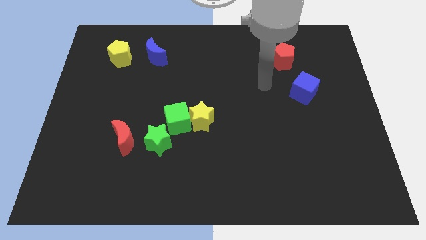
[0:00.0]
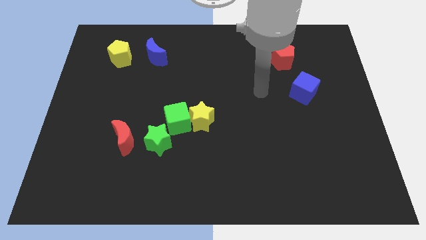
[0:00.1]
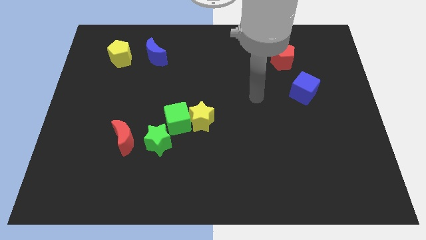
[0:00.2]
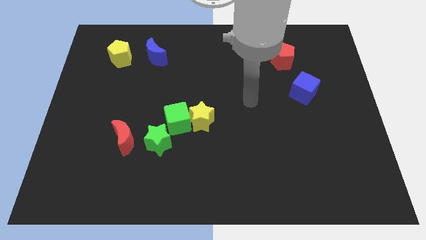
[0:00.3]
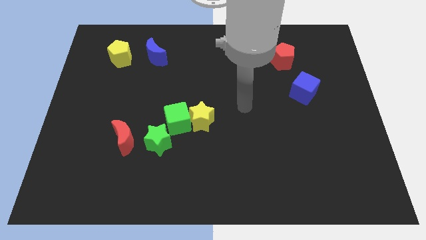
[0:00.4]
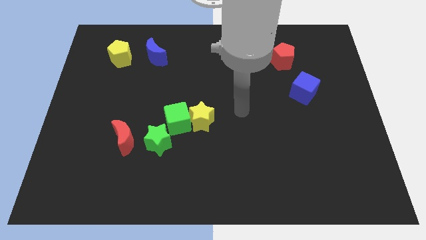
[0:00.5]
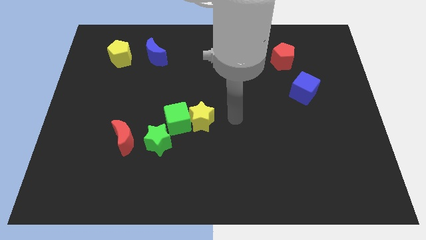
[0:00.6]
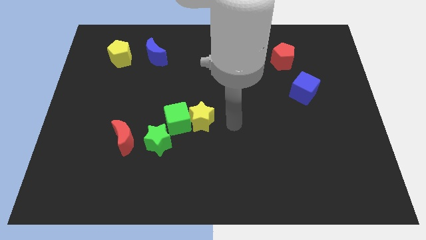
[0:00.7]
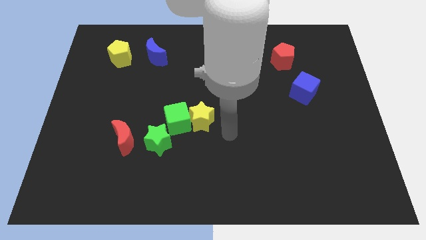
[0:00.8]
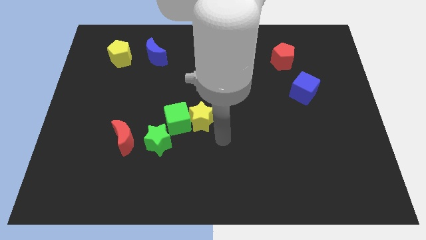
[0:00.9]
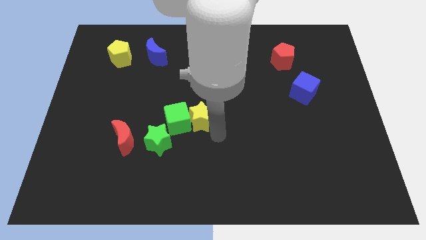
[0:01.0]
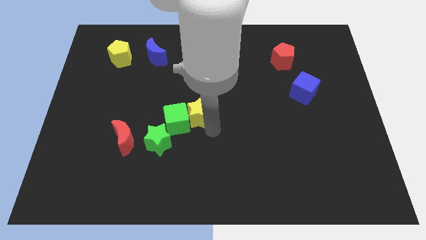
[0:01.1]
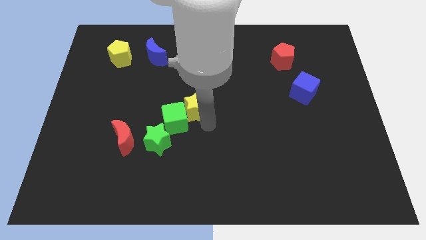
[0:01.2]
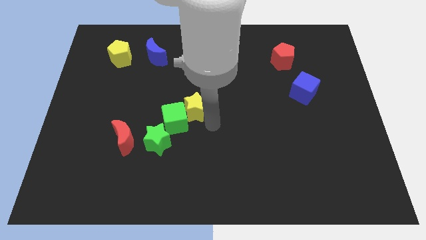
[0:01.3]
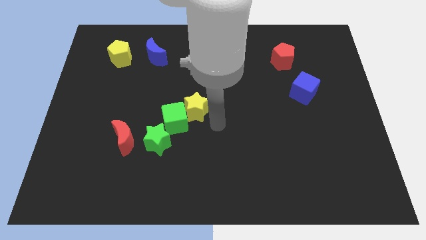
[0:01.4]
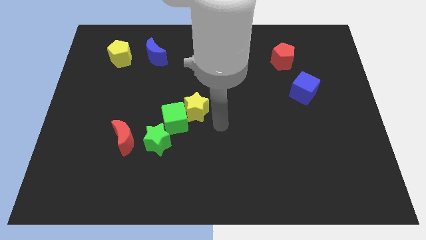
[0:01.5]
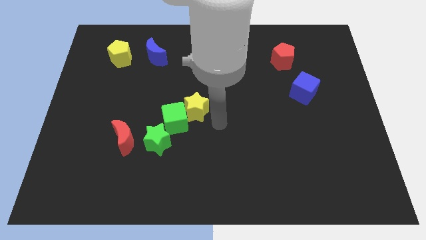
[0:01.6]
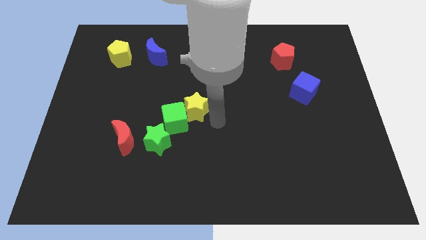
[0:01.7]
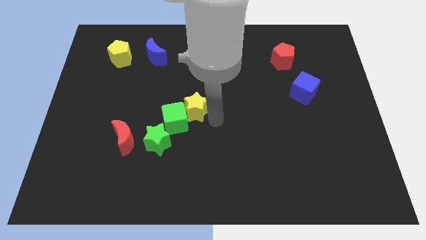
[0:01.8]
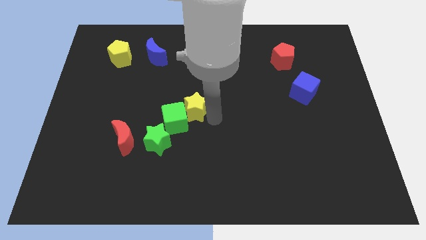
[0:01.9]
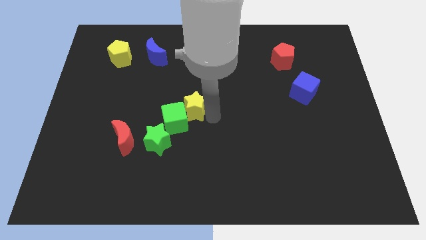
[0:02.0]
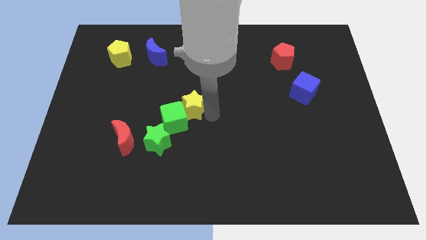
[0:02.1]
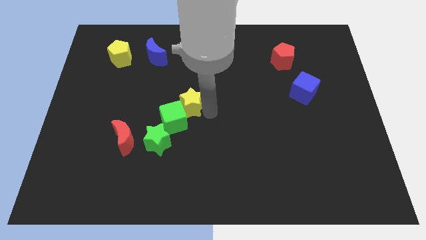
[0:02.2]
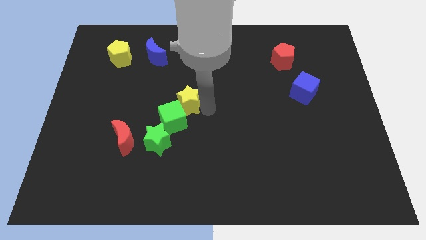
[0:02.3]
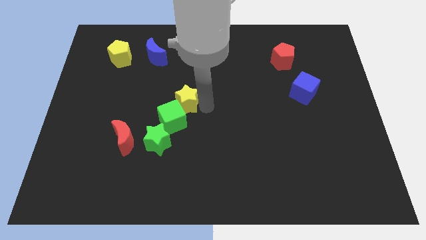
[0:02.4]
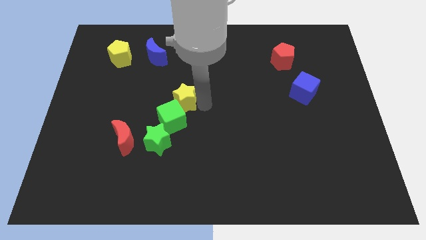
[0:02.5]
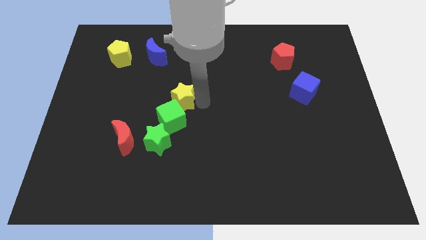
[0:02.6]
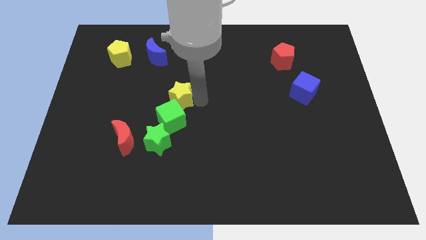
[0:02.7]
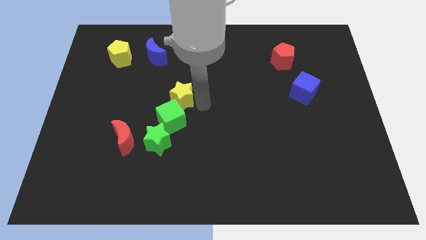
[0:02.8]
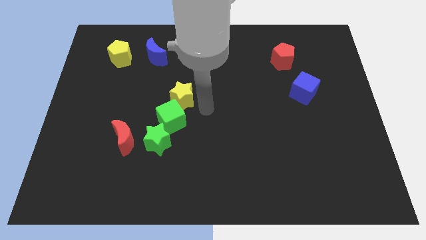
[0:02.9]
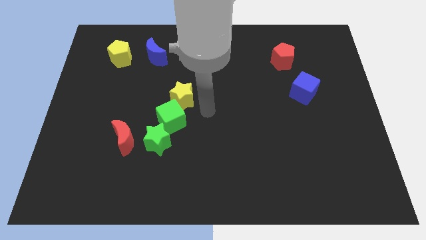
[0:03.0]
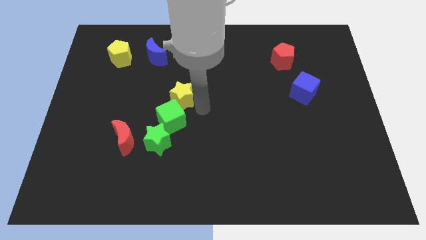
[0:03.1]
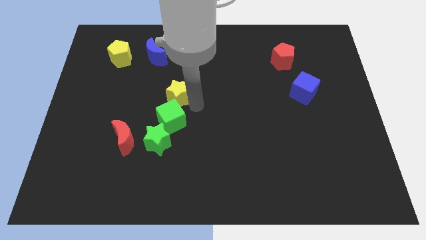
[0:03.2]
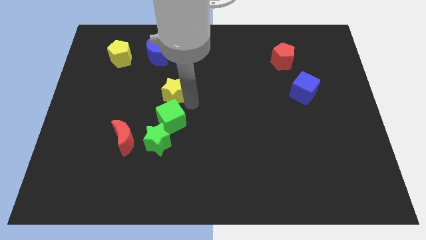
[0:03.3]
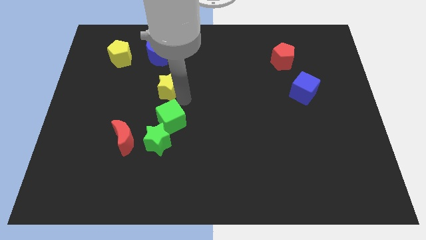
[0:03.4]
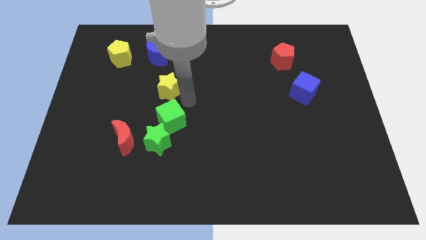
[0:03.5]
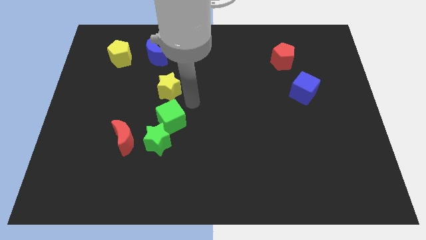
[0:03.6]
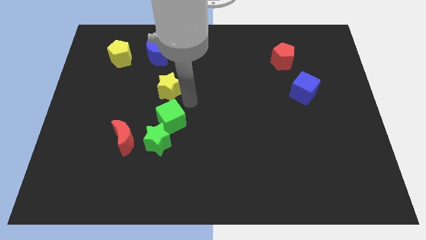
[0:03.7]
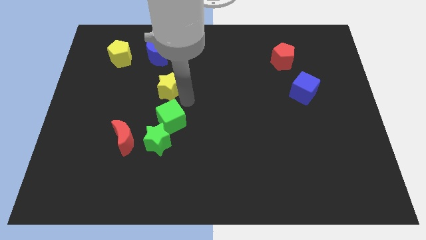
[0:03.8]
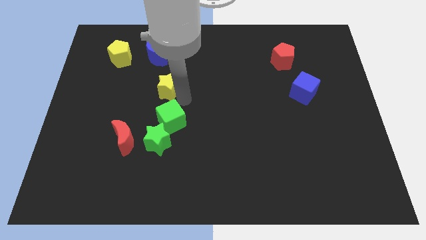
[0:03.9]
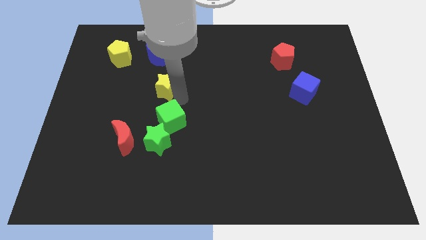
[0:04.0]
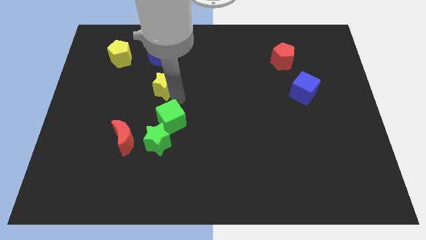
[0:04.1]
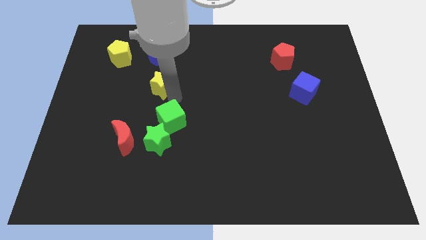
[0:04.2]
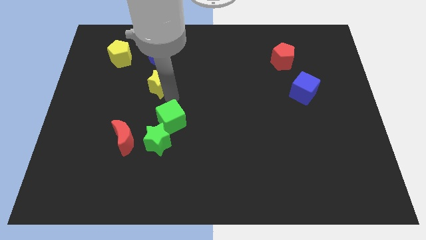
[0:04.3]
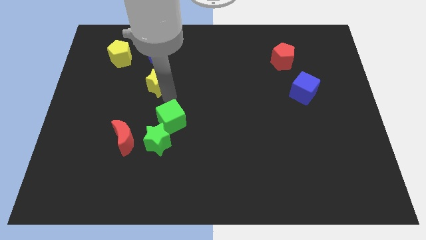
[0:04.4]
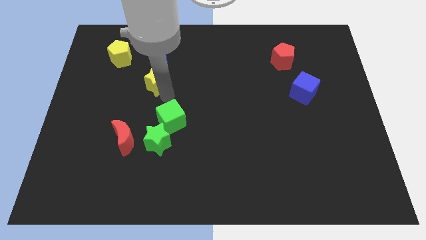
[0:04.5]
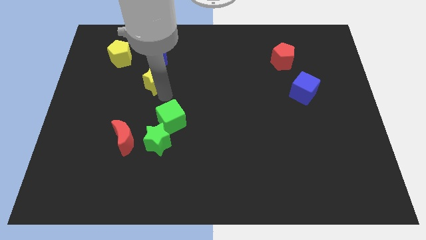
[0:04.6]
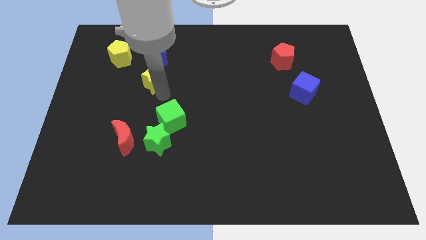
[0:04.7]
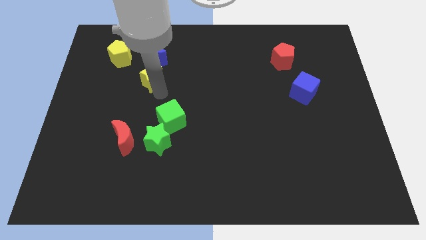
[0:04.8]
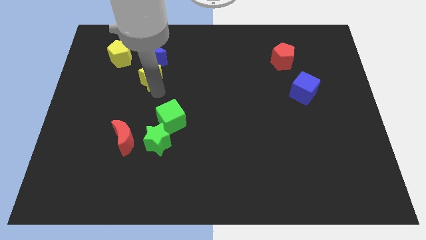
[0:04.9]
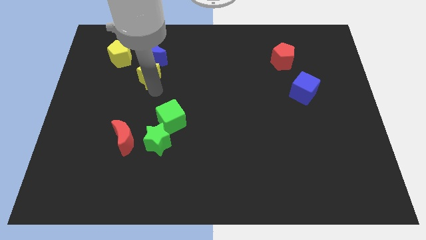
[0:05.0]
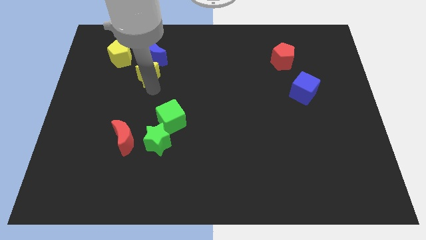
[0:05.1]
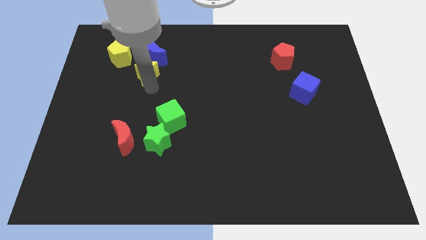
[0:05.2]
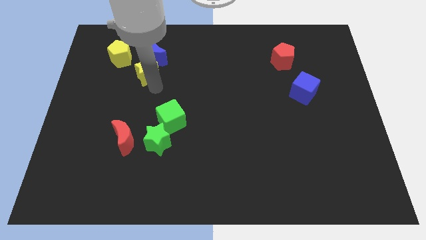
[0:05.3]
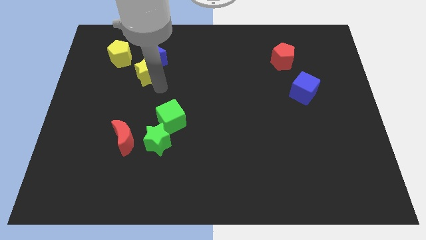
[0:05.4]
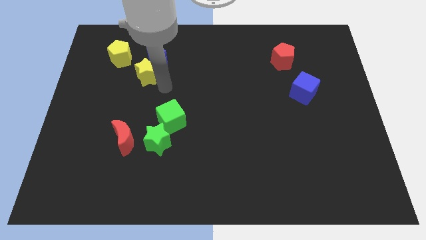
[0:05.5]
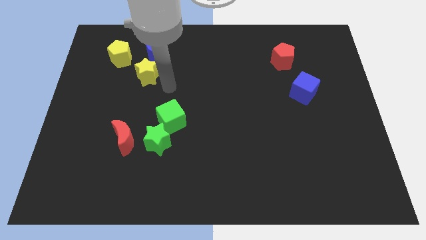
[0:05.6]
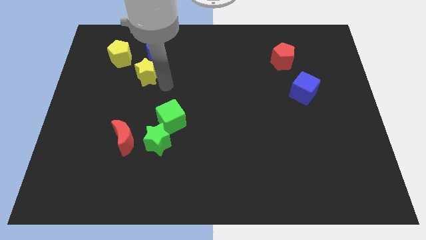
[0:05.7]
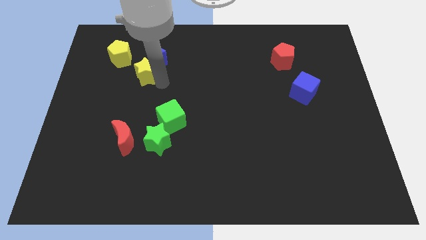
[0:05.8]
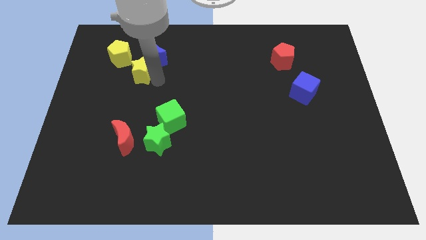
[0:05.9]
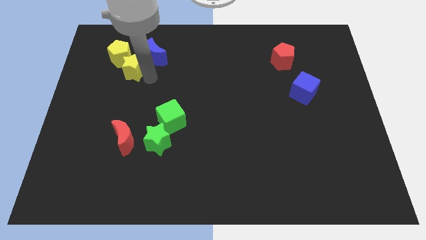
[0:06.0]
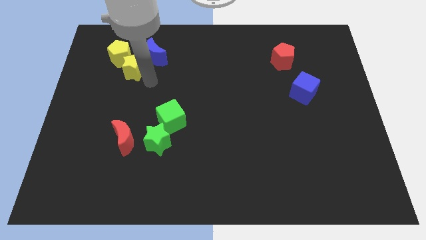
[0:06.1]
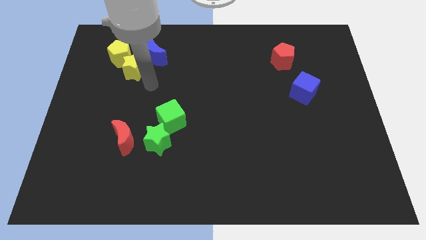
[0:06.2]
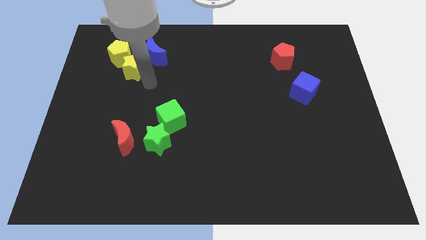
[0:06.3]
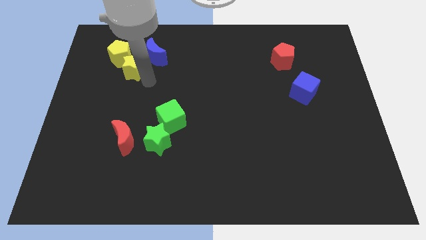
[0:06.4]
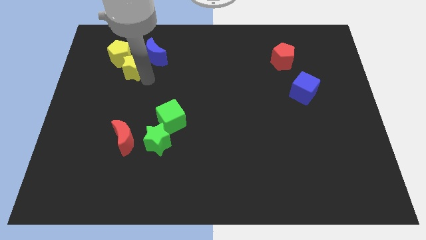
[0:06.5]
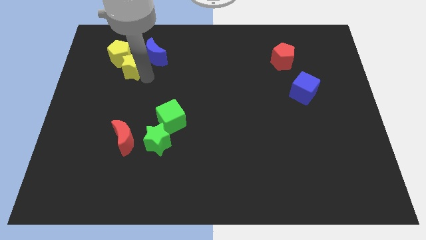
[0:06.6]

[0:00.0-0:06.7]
slide the yellow star towards the yellow pentagon

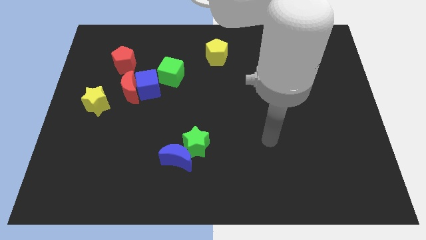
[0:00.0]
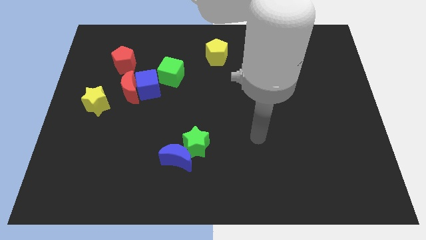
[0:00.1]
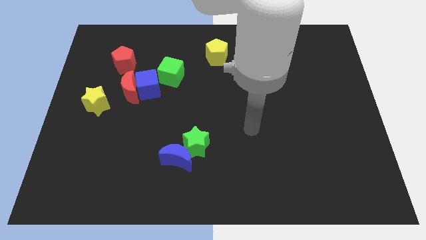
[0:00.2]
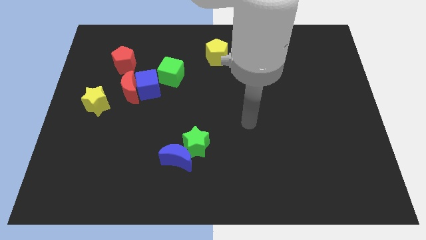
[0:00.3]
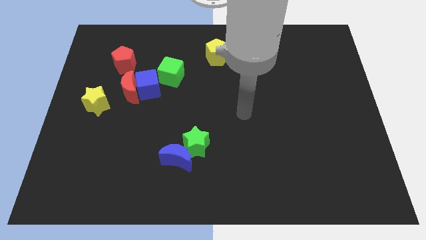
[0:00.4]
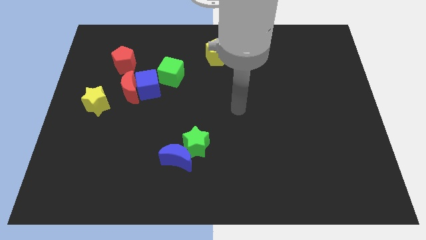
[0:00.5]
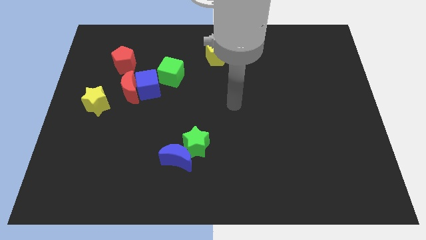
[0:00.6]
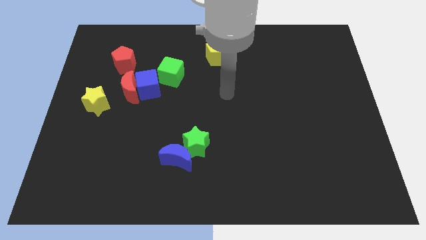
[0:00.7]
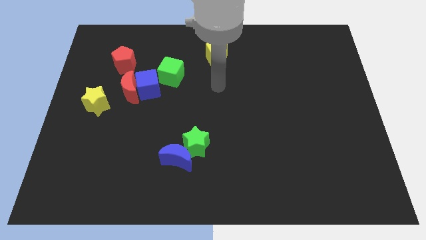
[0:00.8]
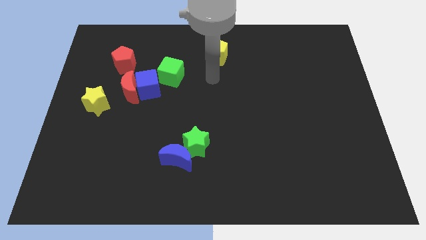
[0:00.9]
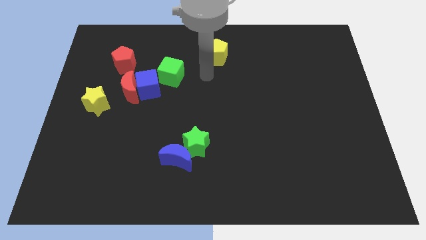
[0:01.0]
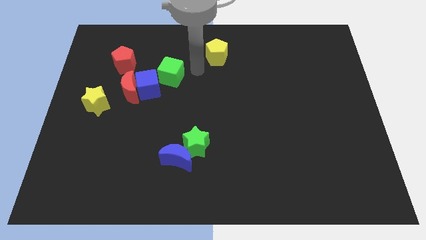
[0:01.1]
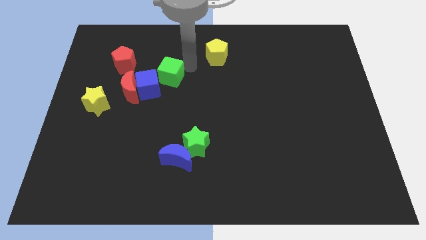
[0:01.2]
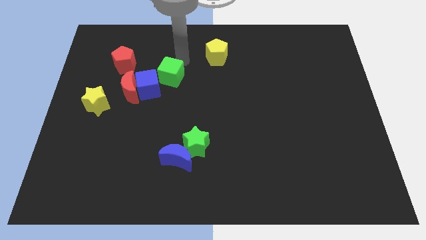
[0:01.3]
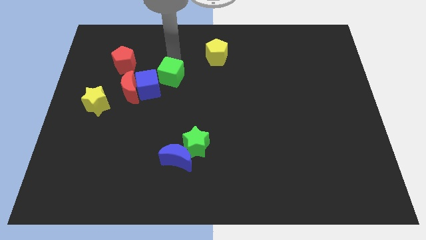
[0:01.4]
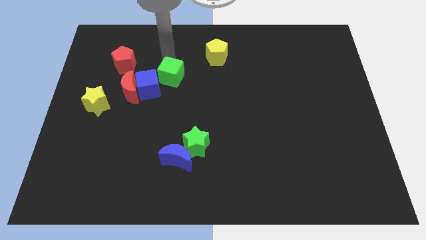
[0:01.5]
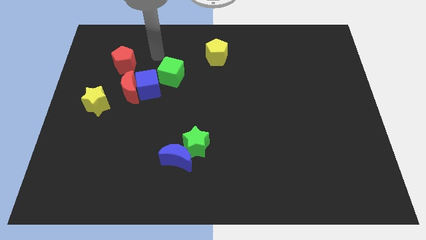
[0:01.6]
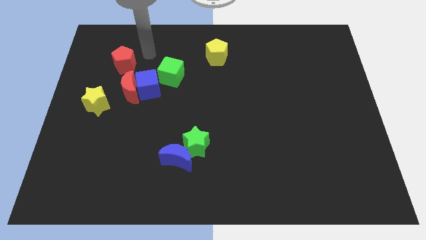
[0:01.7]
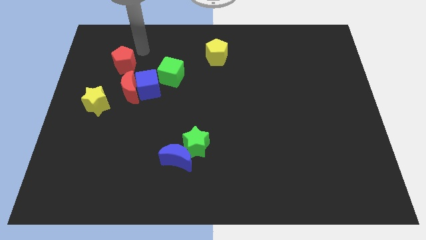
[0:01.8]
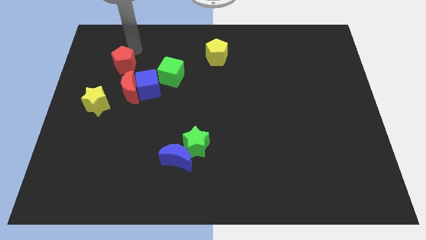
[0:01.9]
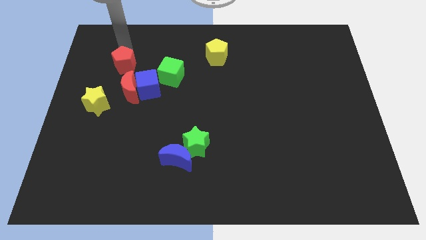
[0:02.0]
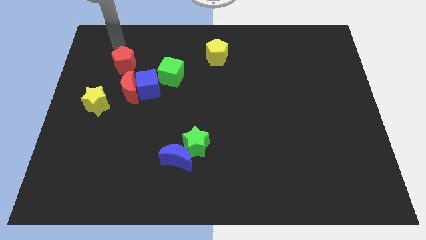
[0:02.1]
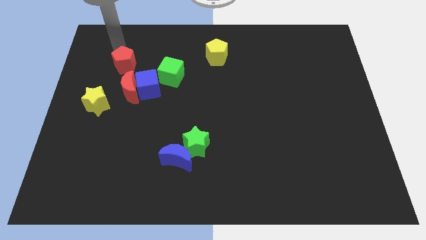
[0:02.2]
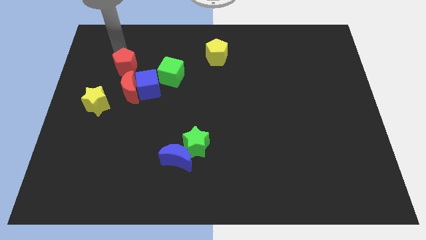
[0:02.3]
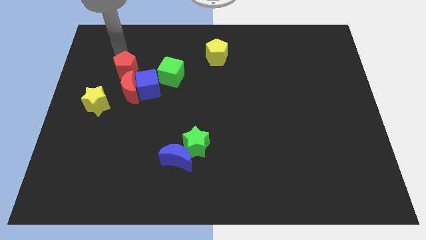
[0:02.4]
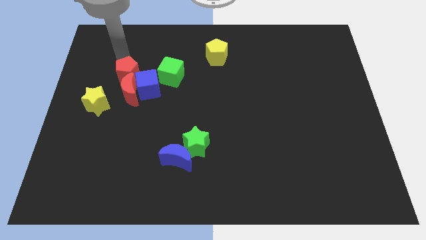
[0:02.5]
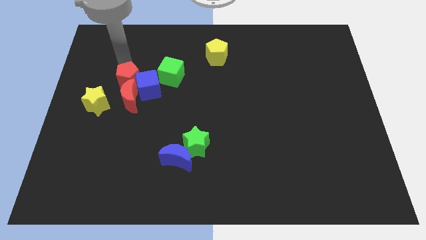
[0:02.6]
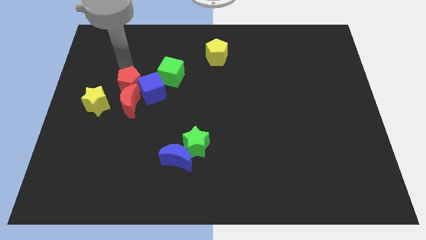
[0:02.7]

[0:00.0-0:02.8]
put the red pentagon close to the red moon
